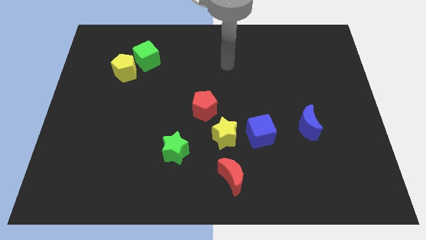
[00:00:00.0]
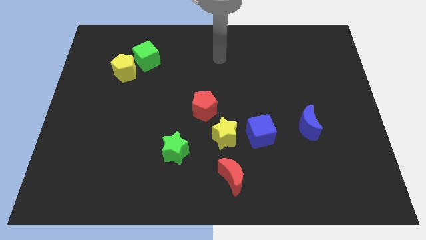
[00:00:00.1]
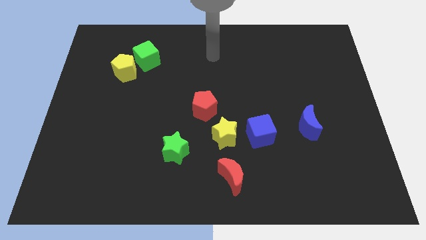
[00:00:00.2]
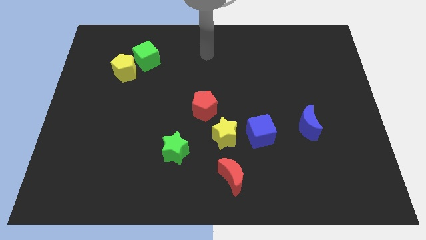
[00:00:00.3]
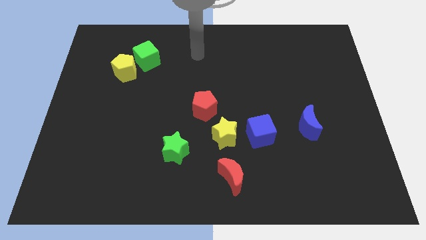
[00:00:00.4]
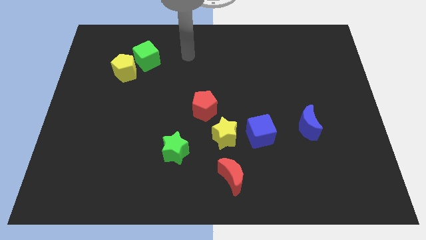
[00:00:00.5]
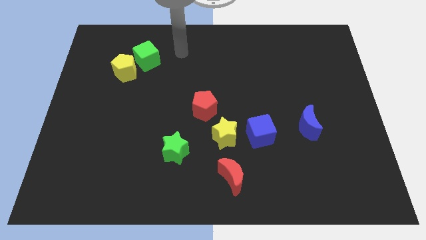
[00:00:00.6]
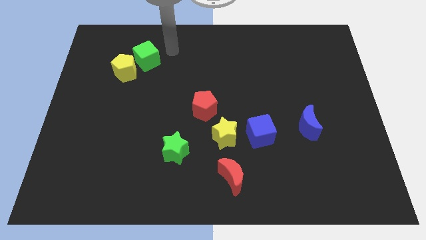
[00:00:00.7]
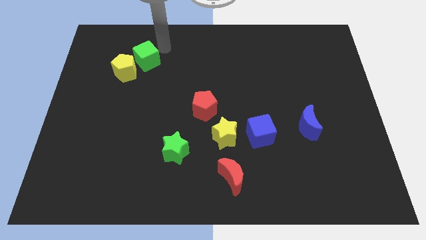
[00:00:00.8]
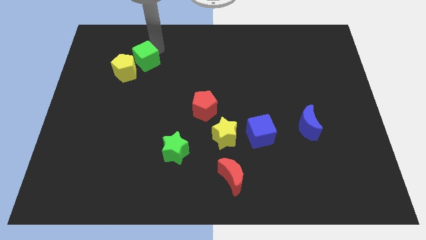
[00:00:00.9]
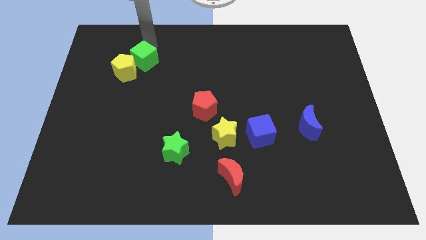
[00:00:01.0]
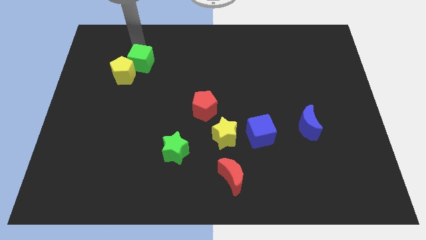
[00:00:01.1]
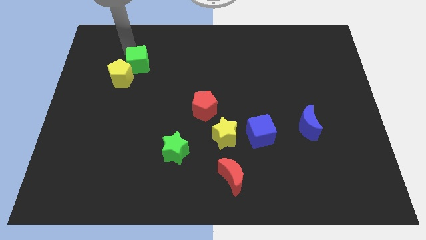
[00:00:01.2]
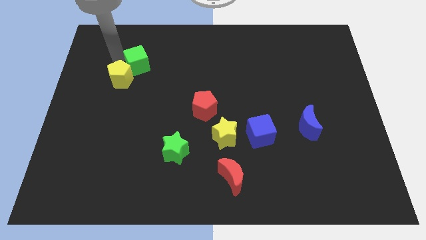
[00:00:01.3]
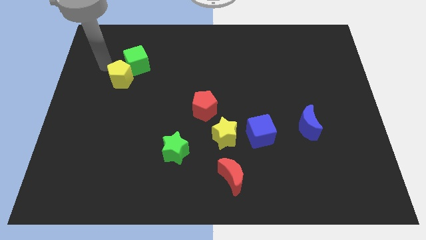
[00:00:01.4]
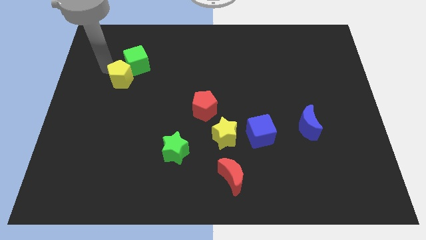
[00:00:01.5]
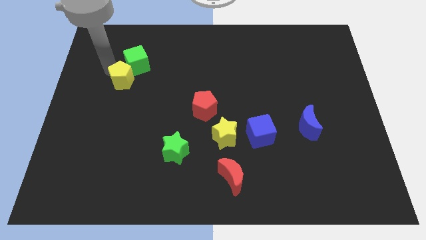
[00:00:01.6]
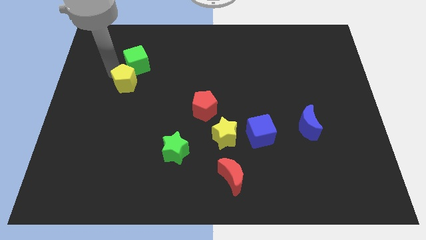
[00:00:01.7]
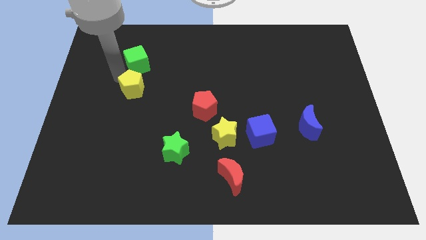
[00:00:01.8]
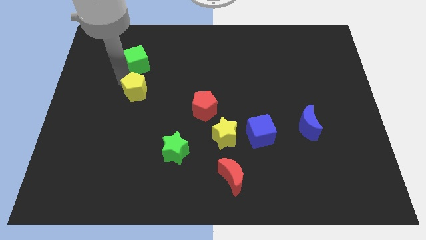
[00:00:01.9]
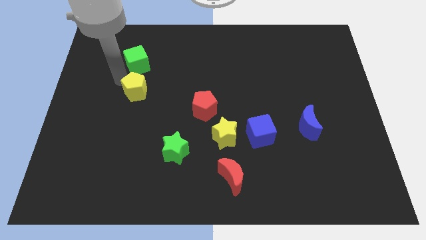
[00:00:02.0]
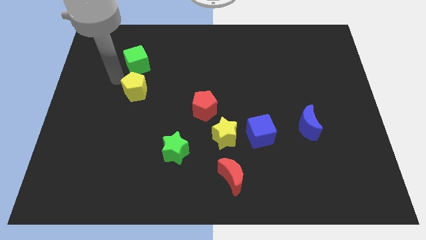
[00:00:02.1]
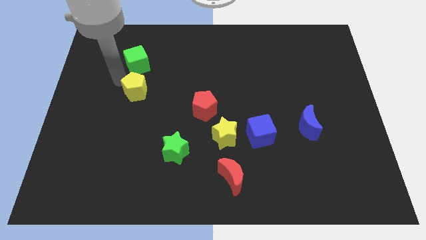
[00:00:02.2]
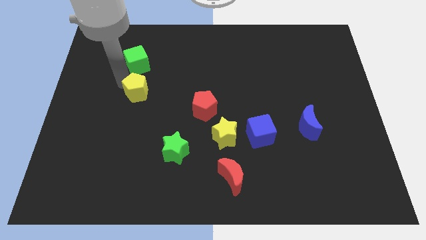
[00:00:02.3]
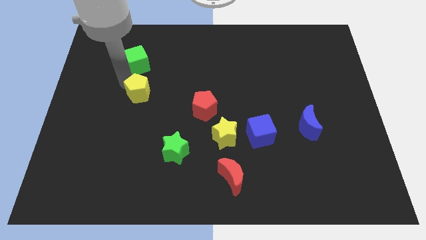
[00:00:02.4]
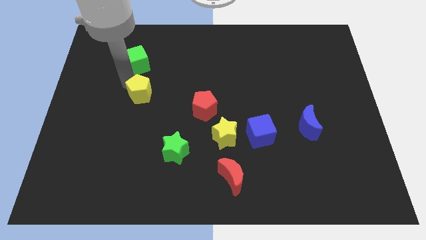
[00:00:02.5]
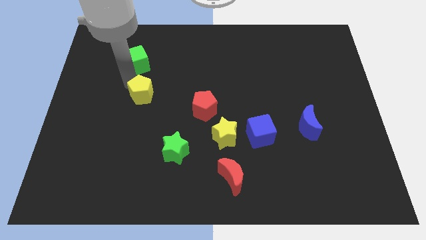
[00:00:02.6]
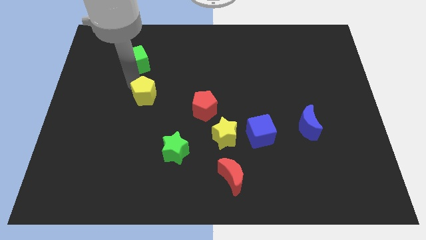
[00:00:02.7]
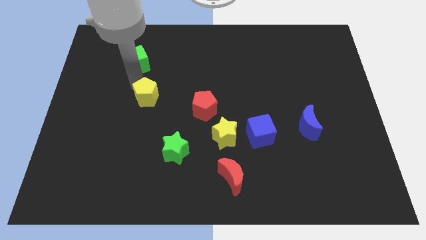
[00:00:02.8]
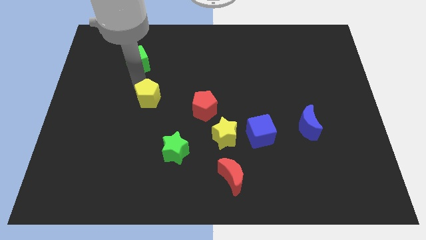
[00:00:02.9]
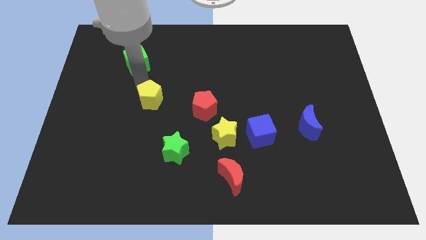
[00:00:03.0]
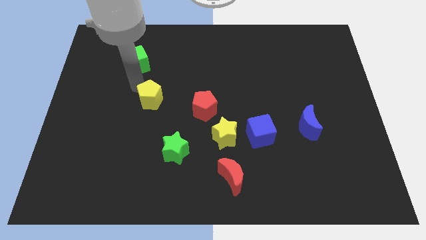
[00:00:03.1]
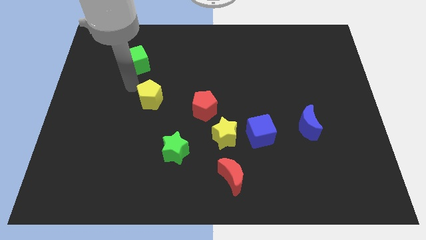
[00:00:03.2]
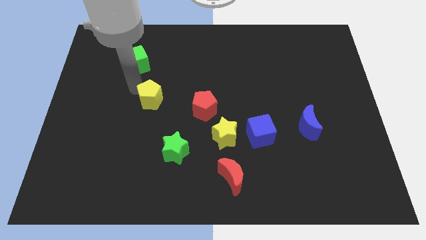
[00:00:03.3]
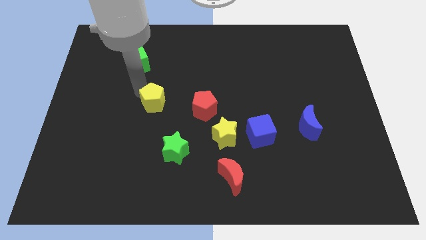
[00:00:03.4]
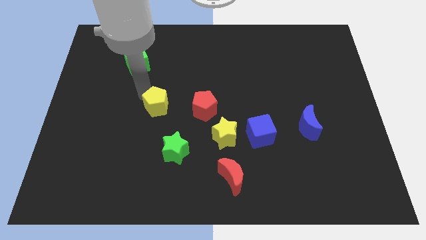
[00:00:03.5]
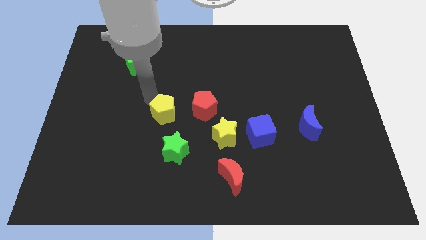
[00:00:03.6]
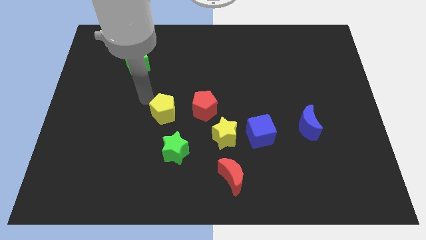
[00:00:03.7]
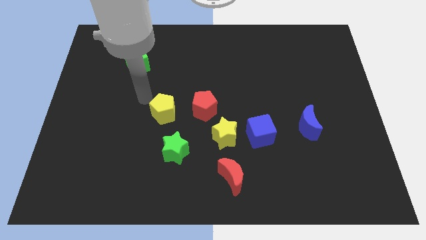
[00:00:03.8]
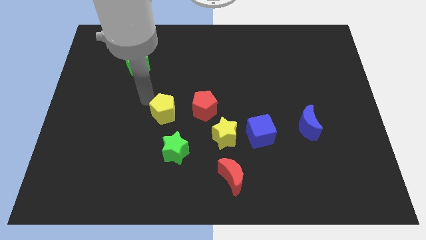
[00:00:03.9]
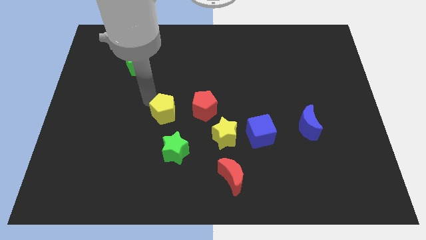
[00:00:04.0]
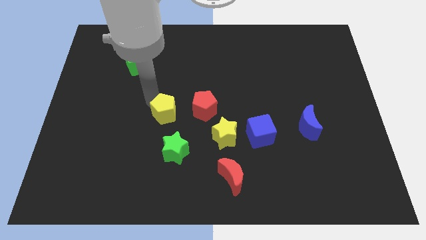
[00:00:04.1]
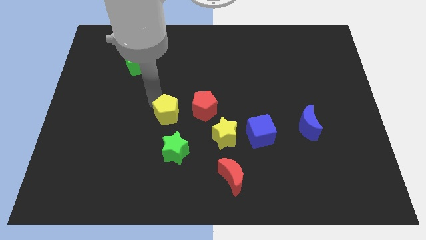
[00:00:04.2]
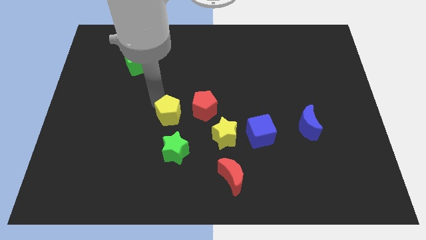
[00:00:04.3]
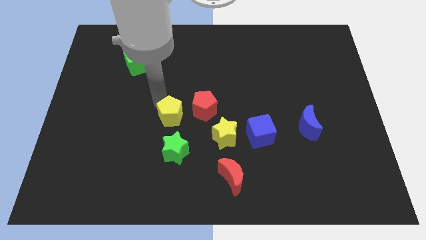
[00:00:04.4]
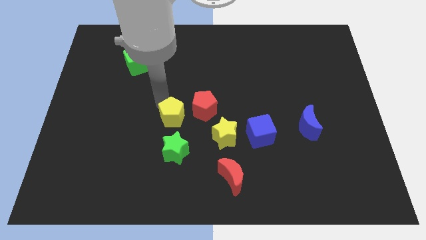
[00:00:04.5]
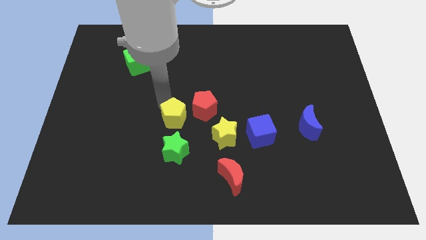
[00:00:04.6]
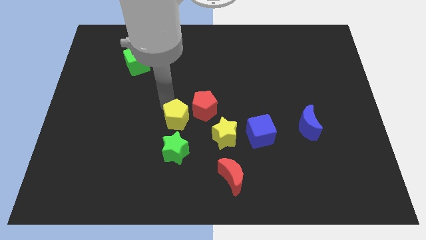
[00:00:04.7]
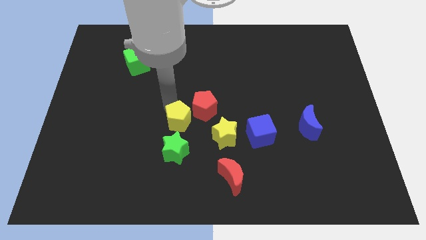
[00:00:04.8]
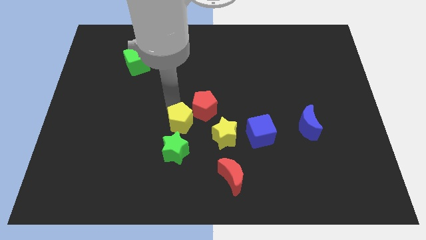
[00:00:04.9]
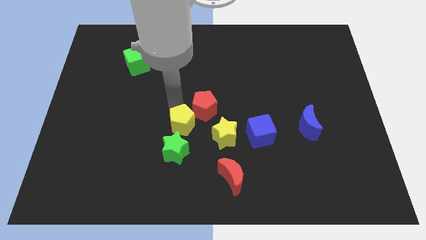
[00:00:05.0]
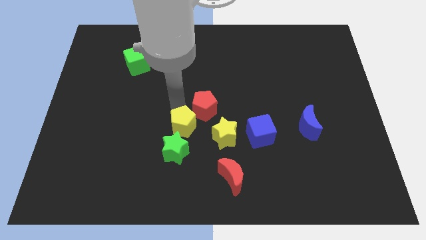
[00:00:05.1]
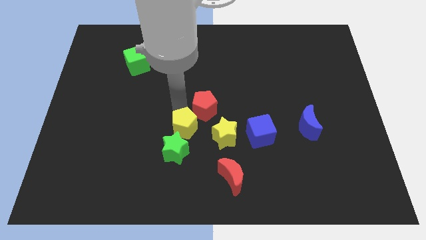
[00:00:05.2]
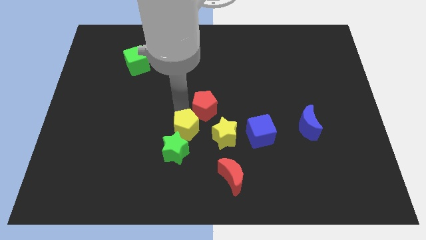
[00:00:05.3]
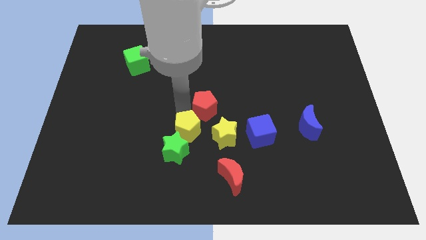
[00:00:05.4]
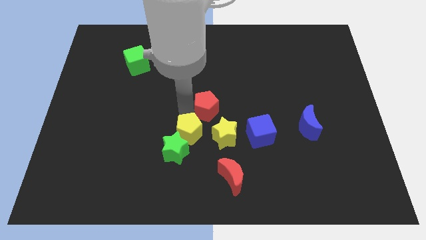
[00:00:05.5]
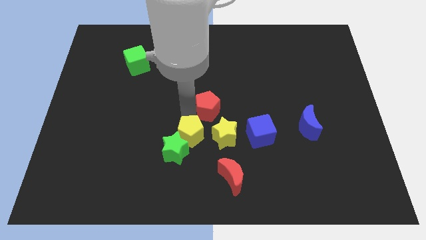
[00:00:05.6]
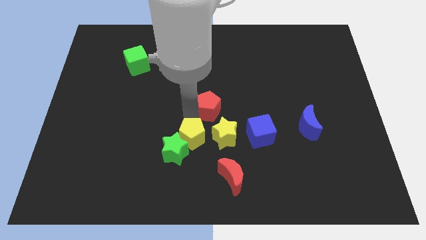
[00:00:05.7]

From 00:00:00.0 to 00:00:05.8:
slide the yellow pentagon to the bottom left of the yellow star

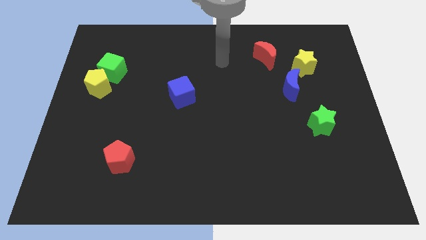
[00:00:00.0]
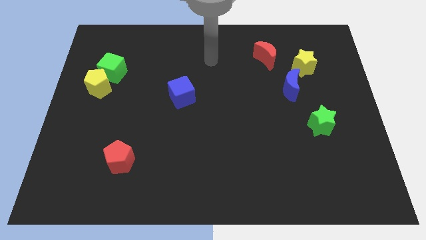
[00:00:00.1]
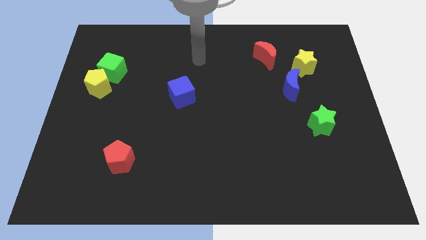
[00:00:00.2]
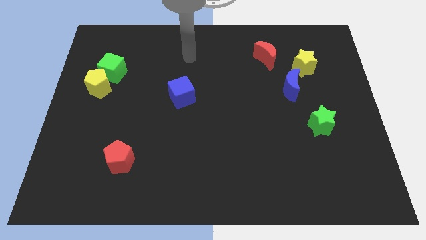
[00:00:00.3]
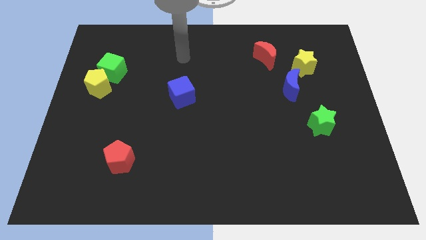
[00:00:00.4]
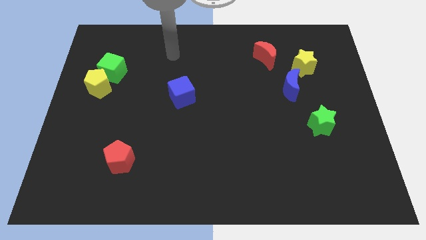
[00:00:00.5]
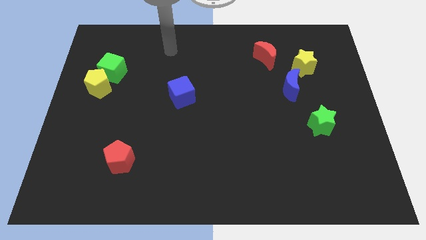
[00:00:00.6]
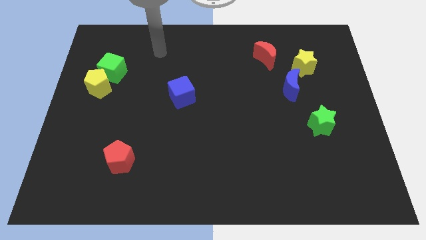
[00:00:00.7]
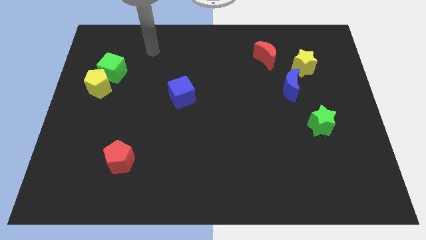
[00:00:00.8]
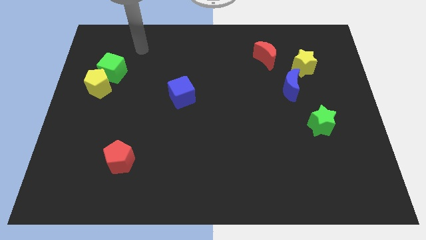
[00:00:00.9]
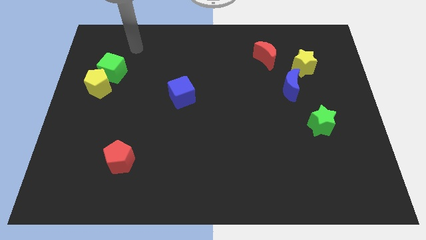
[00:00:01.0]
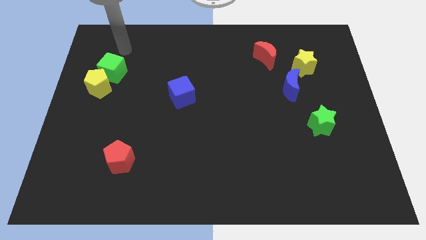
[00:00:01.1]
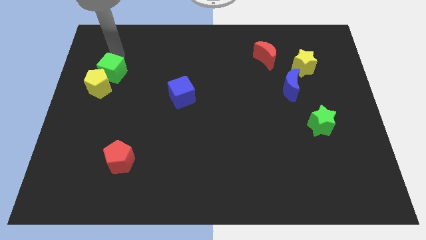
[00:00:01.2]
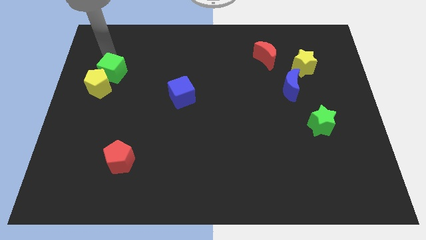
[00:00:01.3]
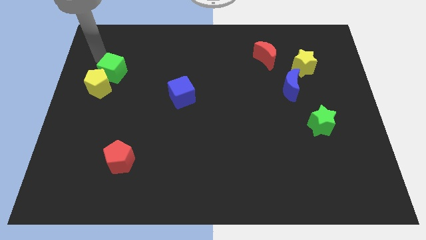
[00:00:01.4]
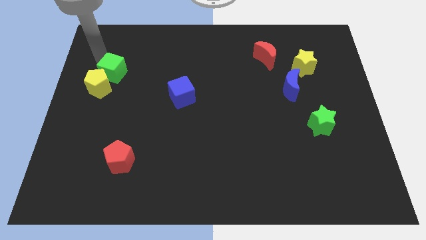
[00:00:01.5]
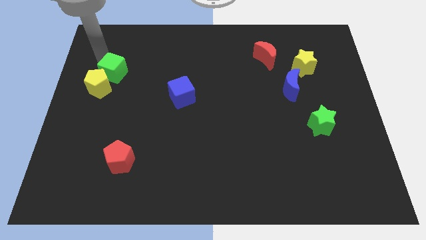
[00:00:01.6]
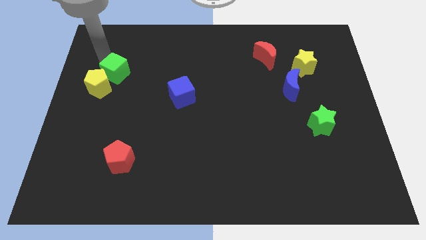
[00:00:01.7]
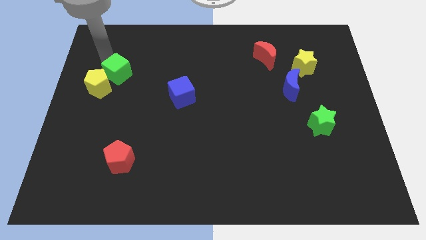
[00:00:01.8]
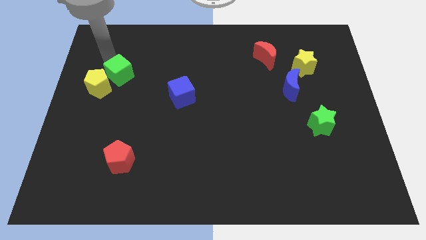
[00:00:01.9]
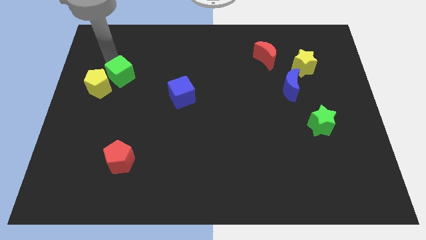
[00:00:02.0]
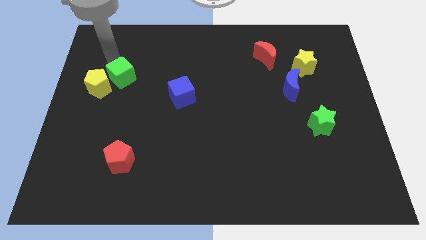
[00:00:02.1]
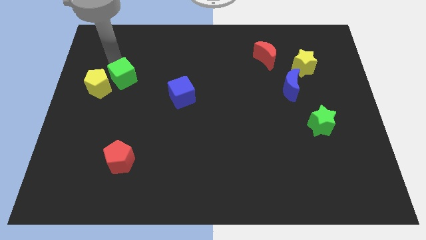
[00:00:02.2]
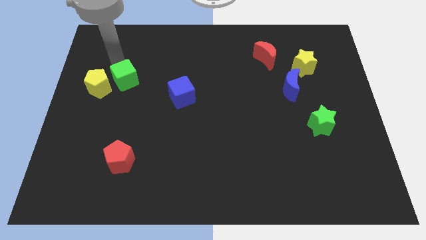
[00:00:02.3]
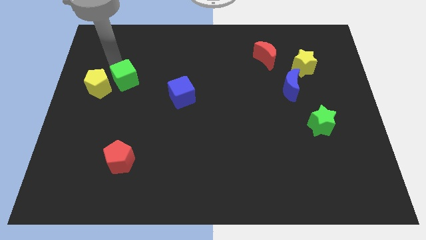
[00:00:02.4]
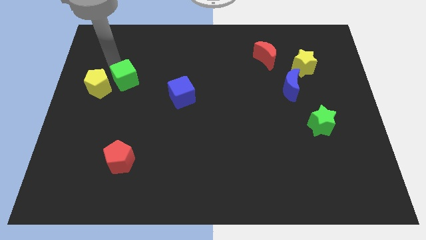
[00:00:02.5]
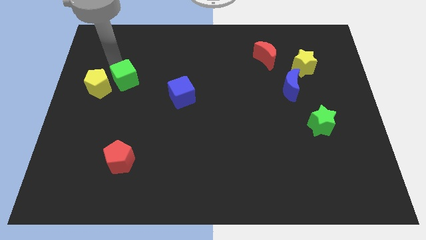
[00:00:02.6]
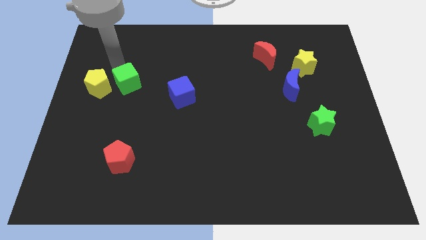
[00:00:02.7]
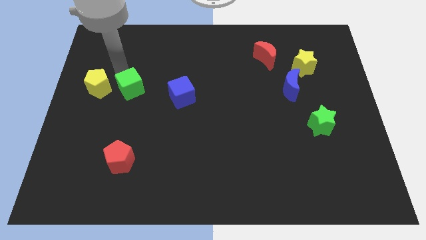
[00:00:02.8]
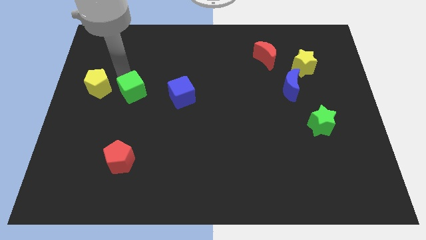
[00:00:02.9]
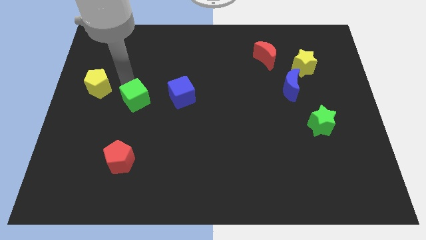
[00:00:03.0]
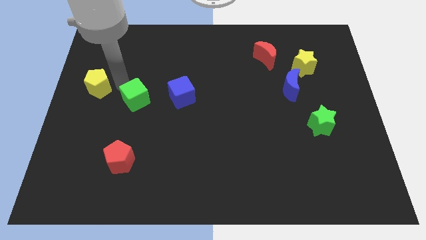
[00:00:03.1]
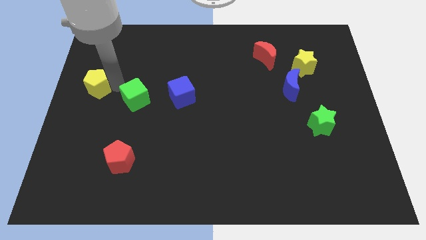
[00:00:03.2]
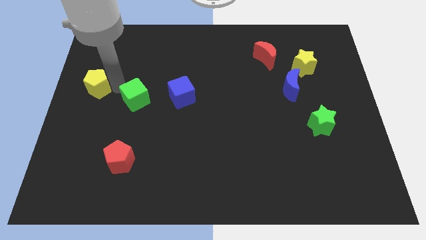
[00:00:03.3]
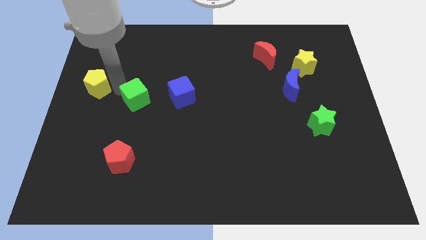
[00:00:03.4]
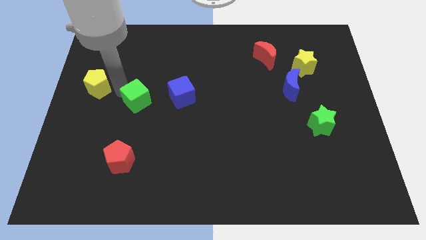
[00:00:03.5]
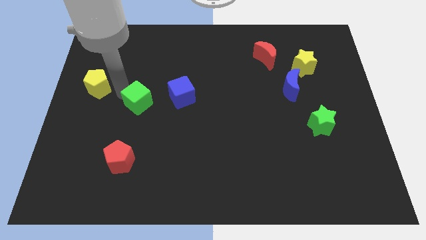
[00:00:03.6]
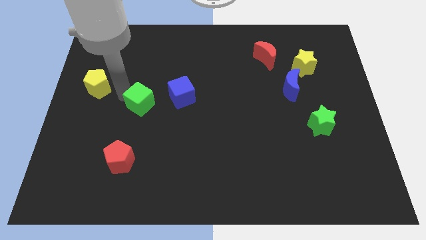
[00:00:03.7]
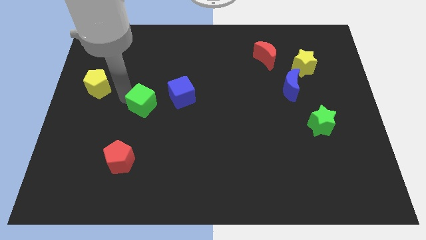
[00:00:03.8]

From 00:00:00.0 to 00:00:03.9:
move the green cube to the bottom left side of the blue cube
